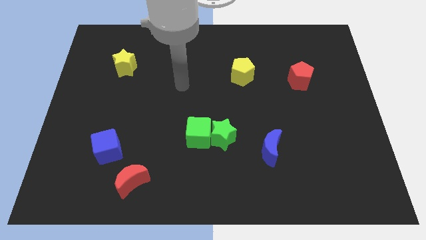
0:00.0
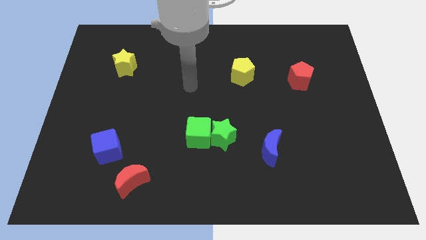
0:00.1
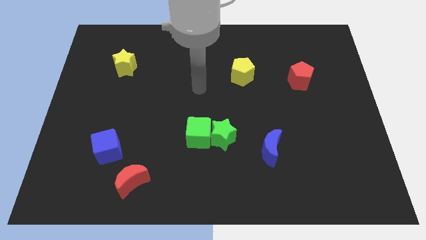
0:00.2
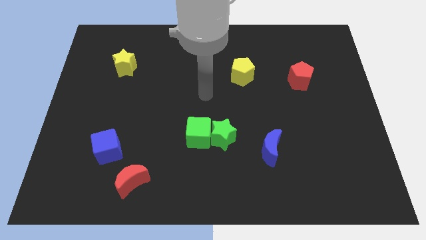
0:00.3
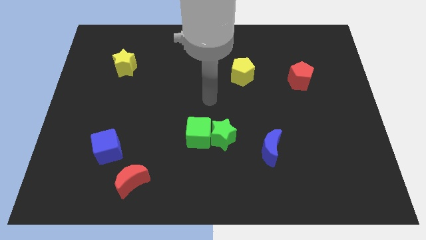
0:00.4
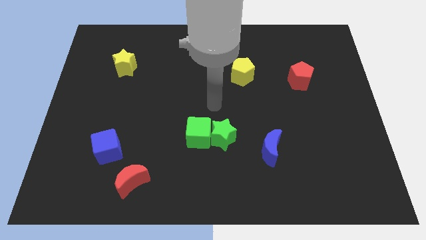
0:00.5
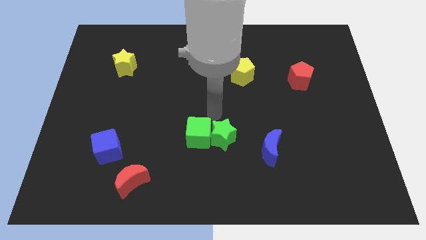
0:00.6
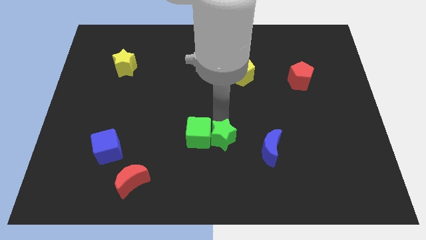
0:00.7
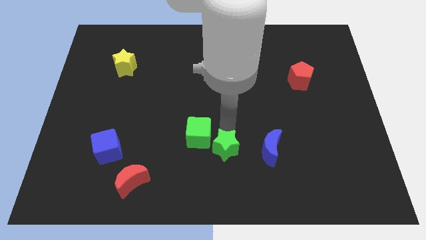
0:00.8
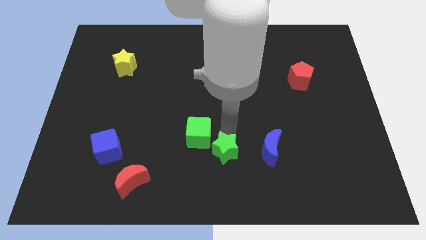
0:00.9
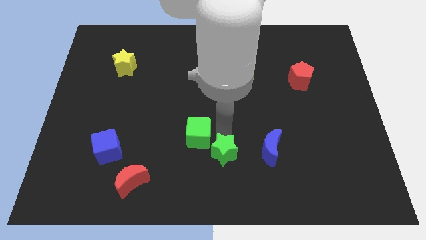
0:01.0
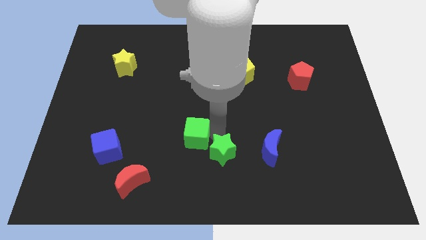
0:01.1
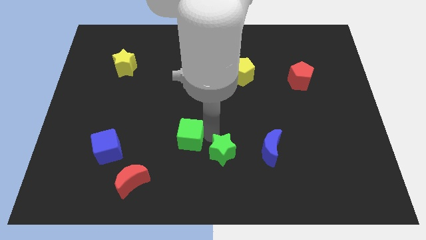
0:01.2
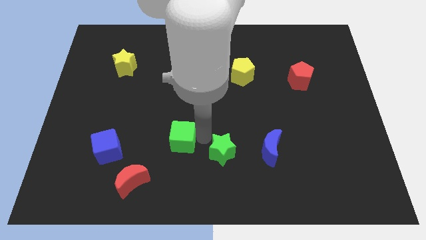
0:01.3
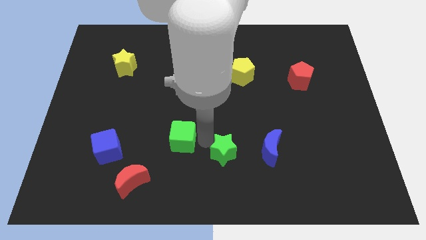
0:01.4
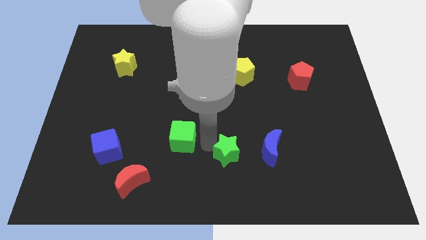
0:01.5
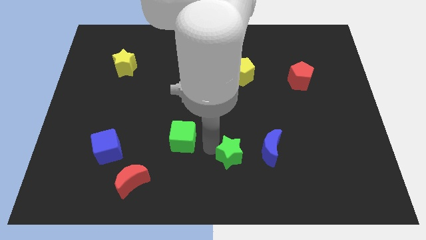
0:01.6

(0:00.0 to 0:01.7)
separate the green cube from the green star

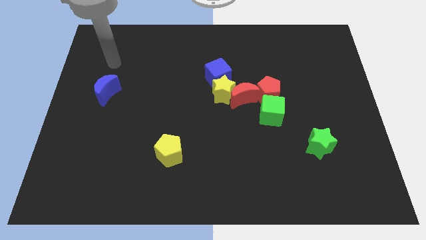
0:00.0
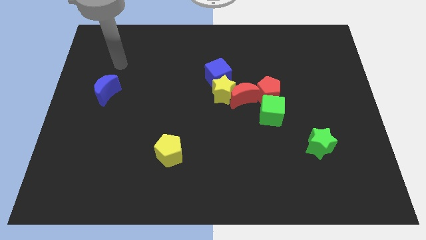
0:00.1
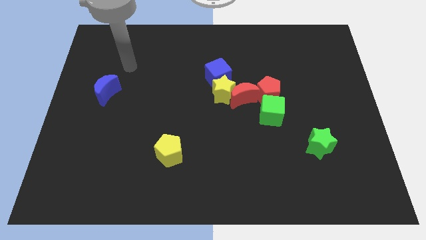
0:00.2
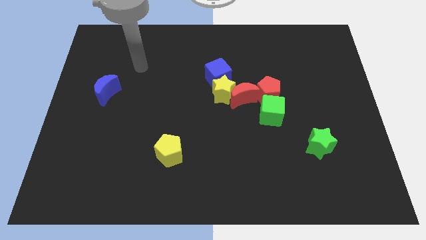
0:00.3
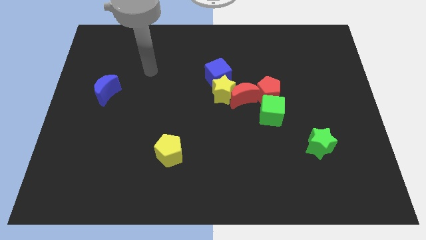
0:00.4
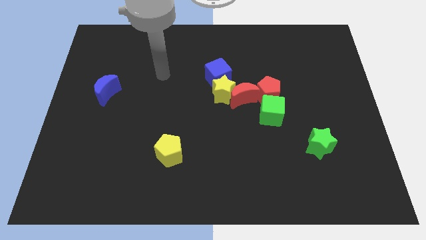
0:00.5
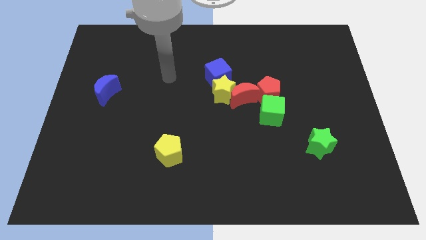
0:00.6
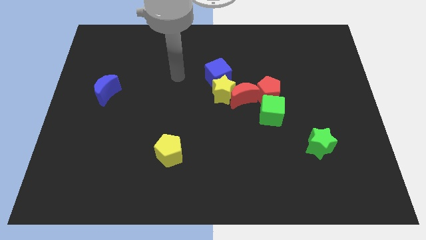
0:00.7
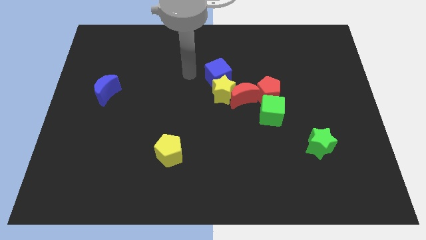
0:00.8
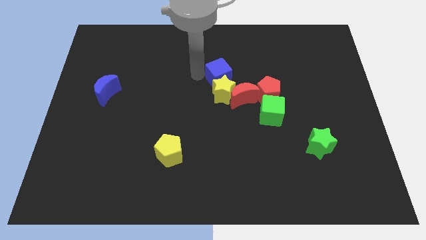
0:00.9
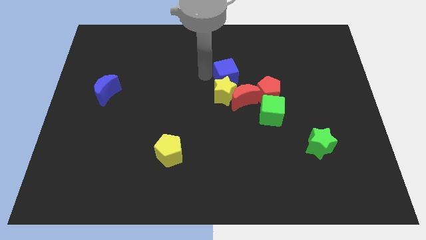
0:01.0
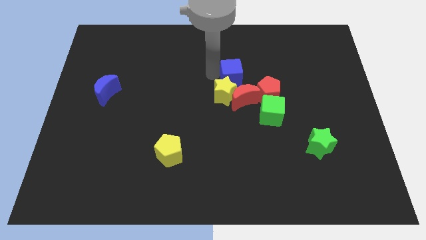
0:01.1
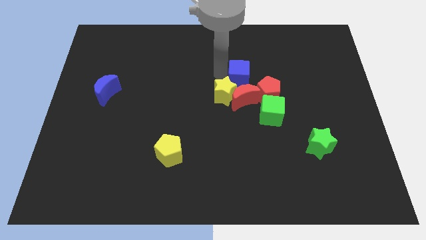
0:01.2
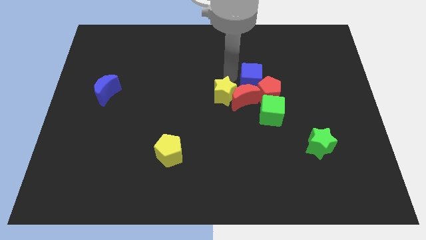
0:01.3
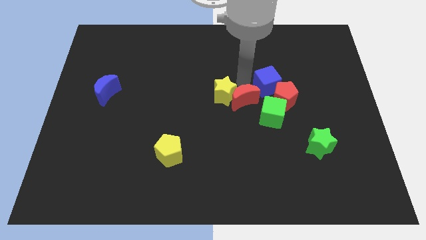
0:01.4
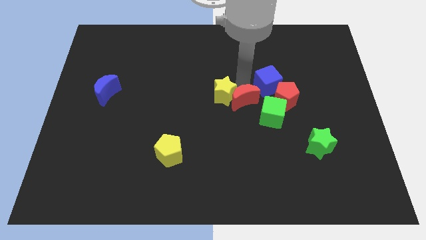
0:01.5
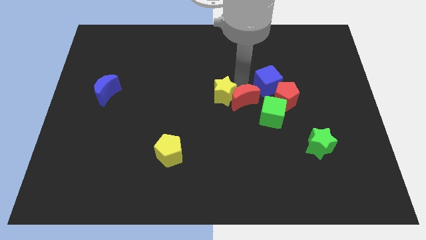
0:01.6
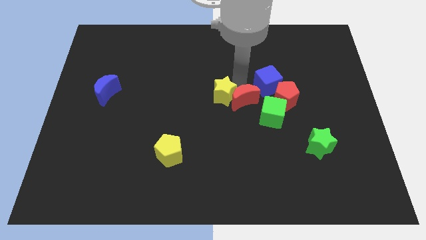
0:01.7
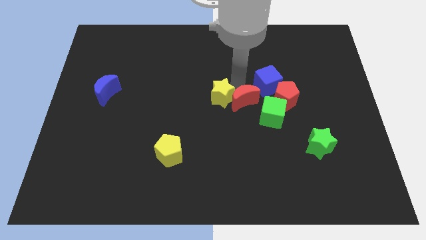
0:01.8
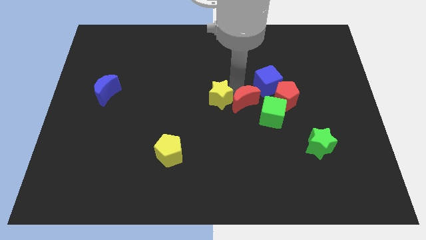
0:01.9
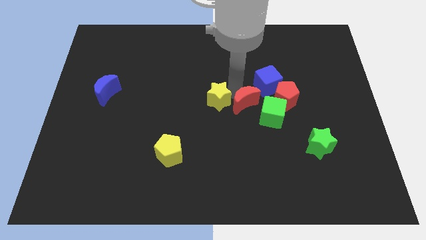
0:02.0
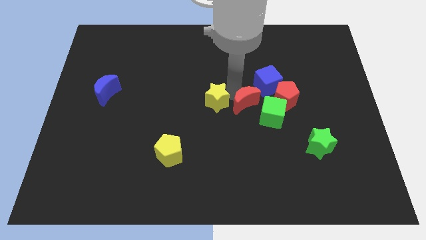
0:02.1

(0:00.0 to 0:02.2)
pull the yellow star apart from the red moon and blue cube

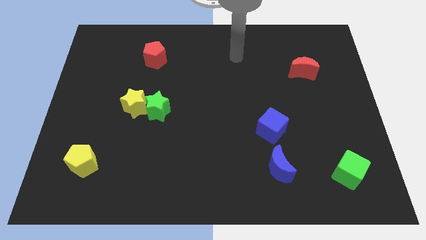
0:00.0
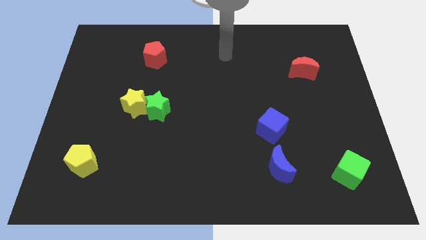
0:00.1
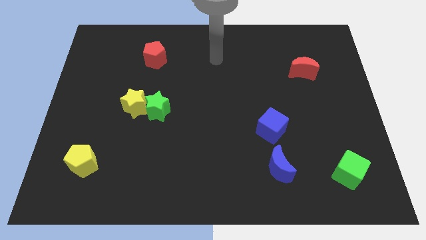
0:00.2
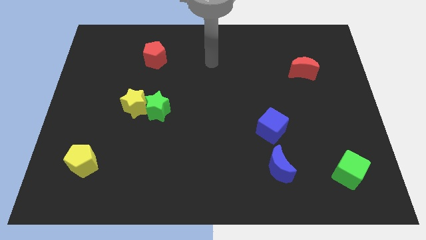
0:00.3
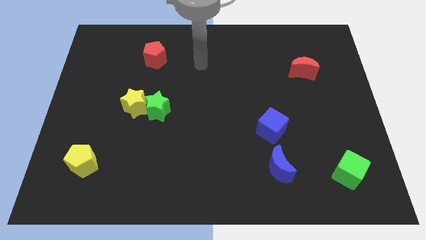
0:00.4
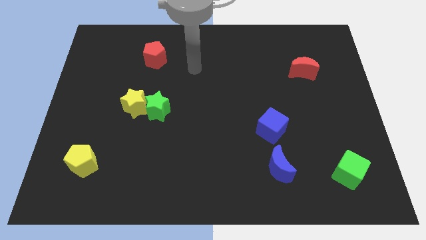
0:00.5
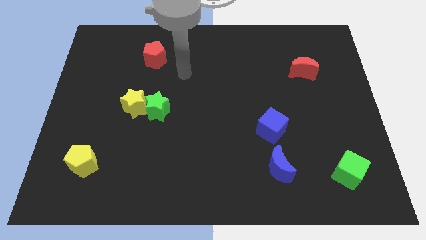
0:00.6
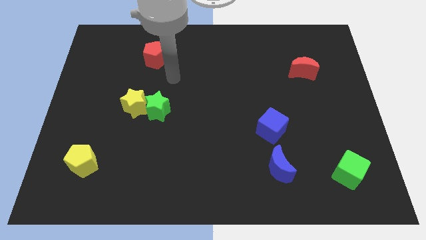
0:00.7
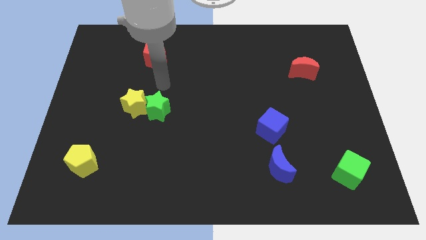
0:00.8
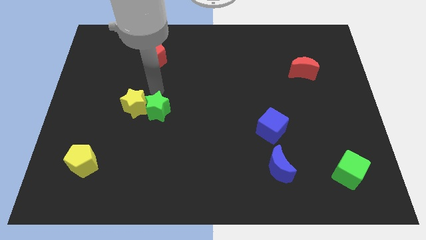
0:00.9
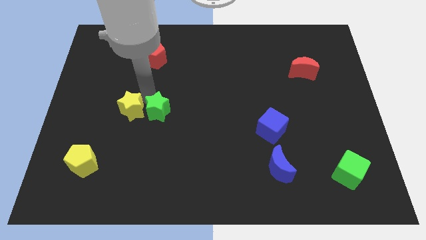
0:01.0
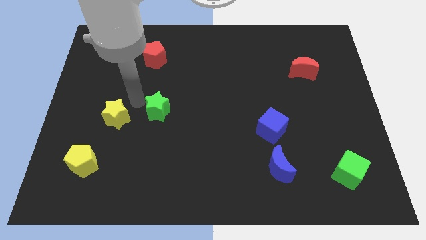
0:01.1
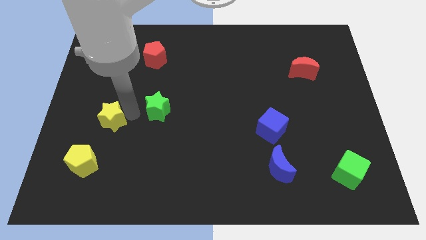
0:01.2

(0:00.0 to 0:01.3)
move the green star away from the yellow star

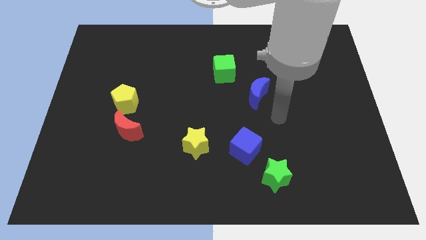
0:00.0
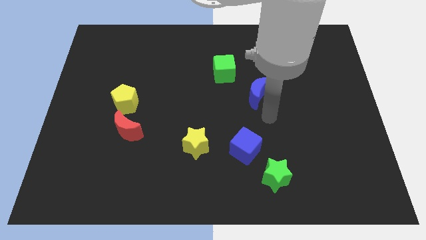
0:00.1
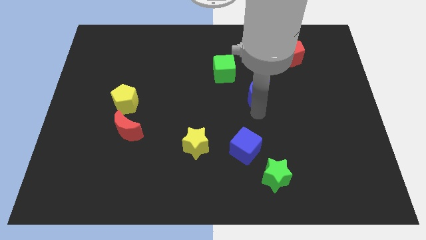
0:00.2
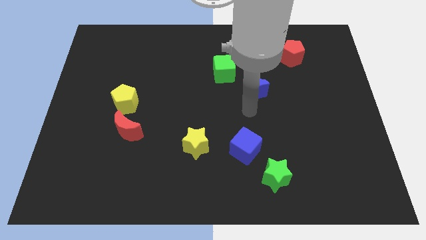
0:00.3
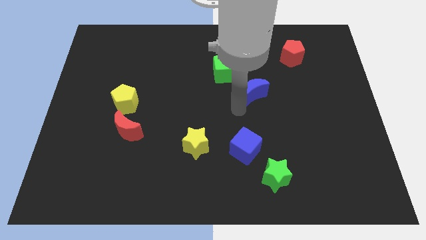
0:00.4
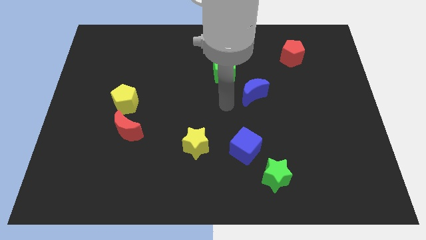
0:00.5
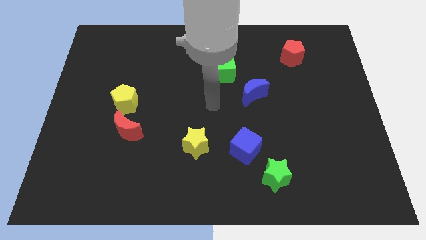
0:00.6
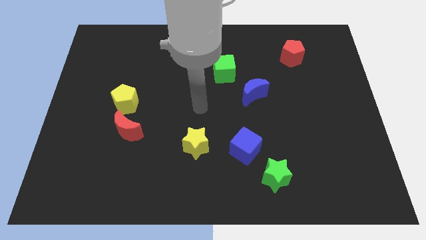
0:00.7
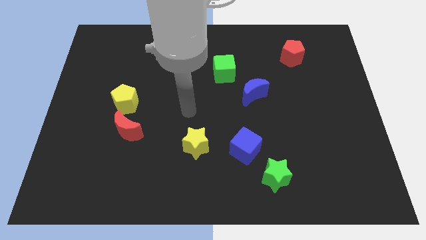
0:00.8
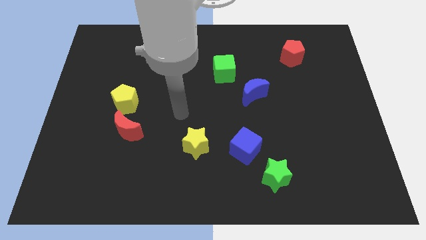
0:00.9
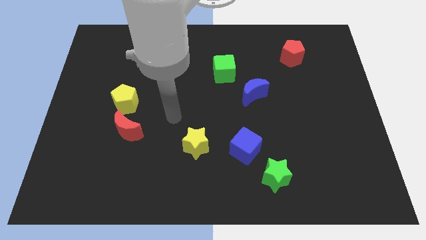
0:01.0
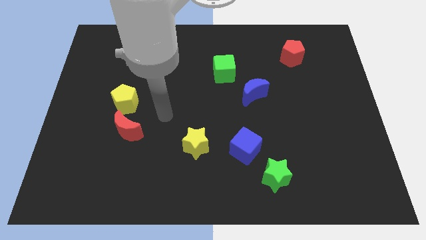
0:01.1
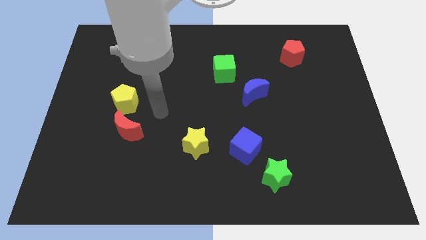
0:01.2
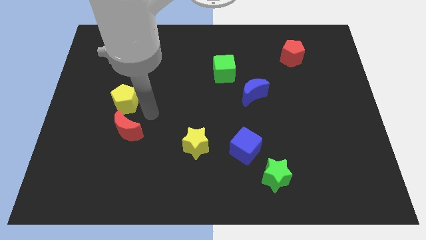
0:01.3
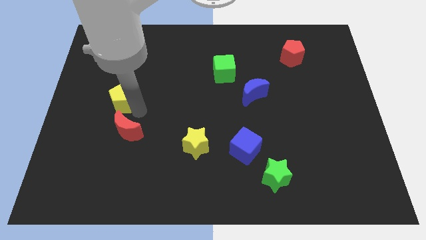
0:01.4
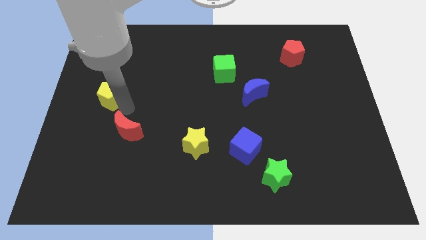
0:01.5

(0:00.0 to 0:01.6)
separate the red moon from the yellow pentagon

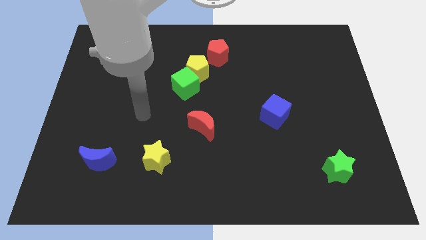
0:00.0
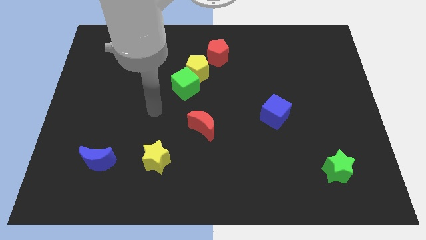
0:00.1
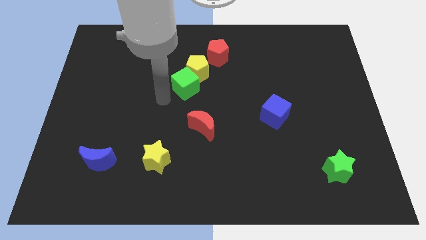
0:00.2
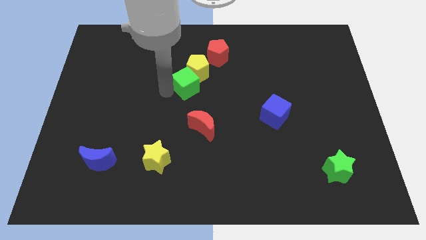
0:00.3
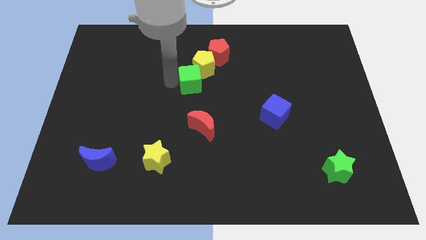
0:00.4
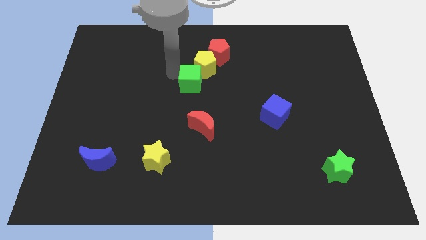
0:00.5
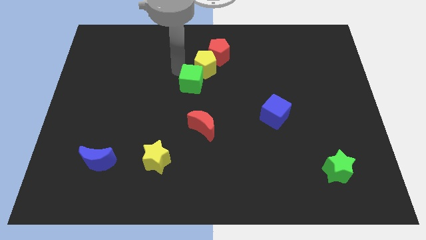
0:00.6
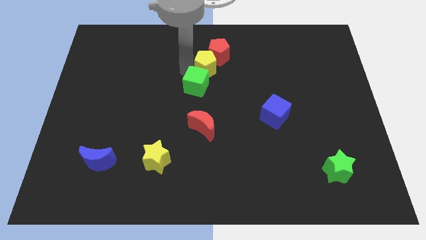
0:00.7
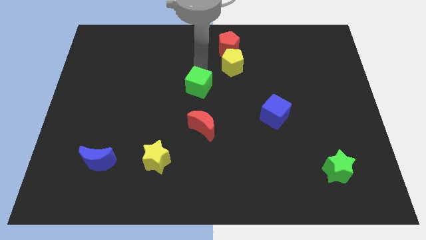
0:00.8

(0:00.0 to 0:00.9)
separate the green cube from the yellow pentagon

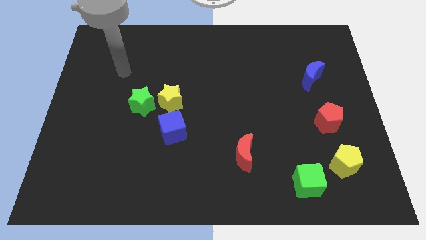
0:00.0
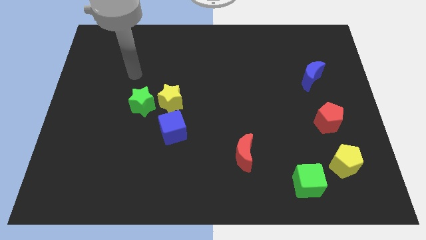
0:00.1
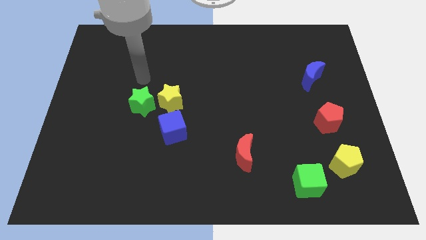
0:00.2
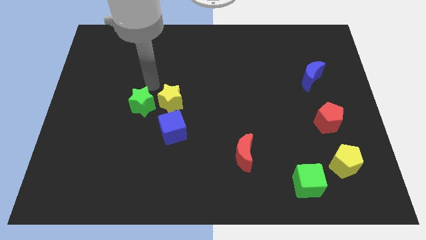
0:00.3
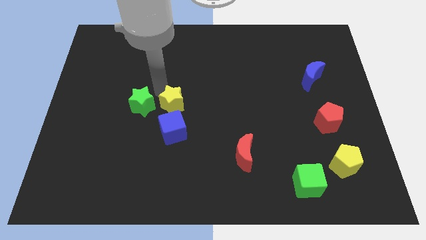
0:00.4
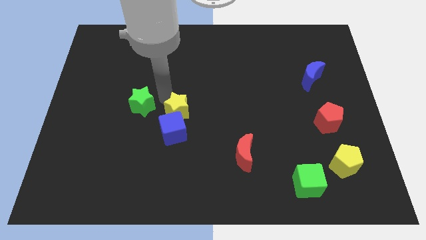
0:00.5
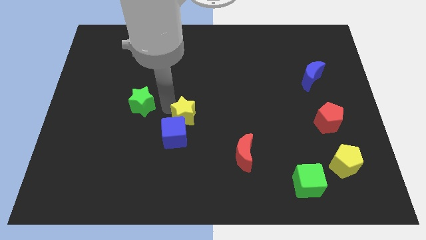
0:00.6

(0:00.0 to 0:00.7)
pull the green star apart from the yellow star

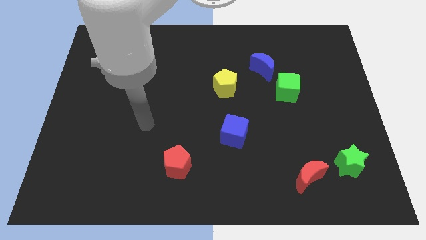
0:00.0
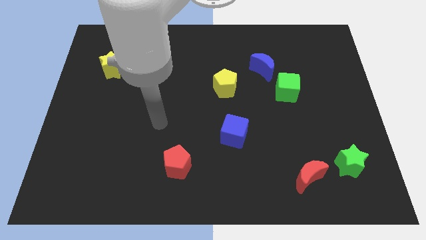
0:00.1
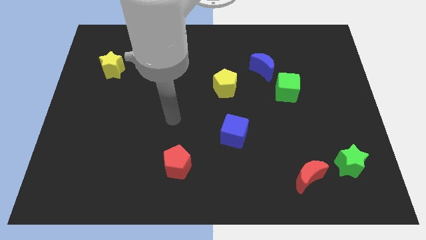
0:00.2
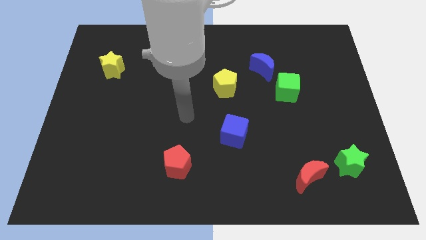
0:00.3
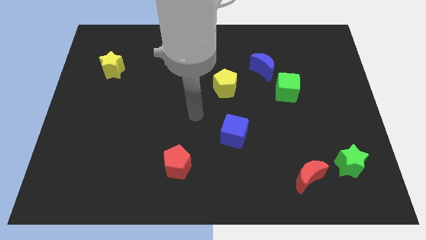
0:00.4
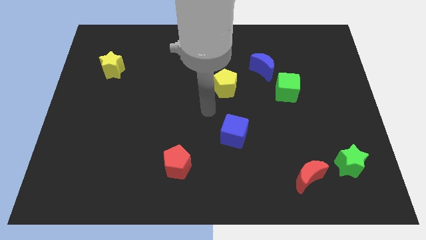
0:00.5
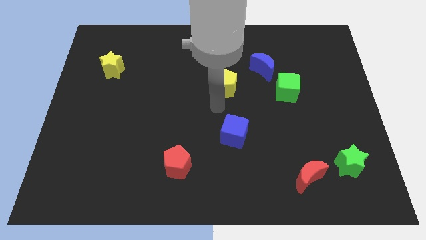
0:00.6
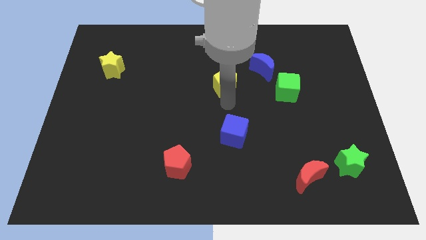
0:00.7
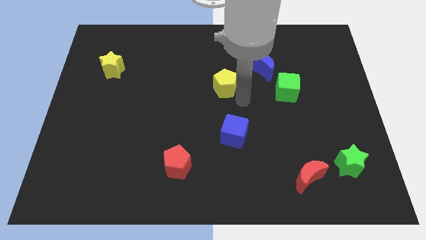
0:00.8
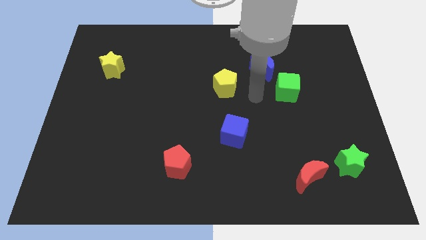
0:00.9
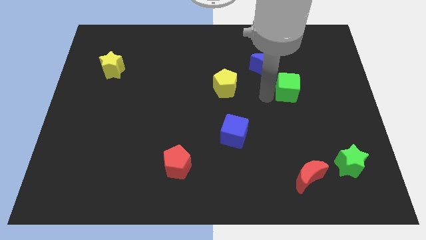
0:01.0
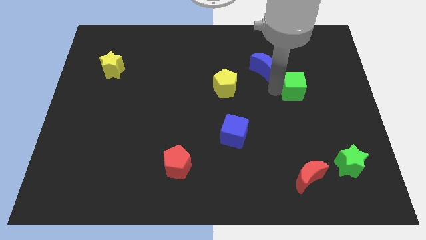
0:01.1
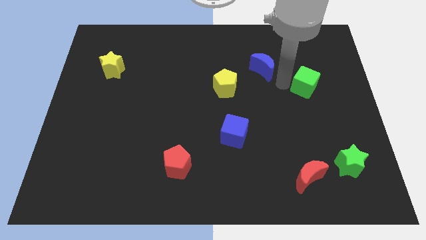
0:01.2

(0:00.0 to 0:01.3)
pull the blue moon apart from the green cube
